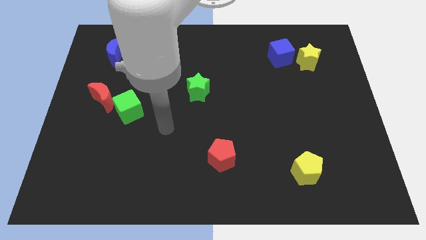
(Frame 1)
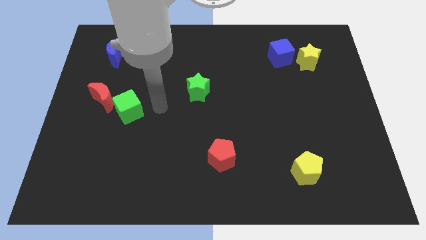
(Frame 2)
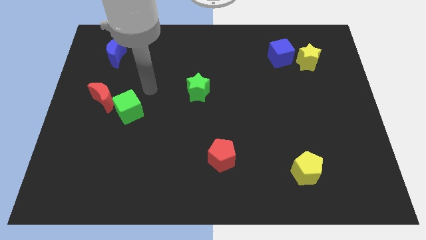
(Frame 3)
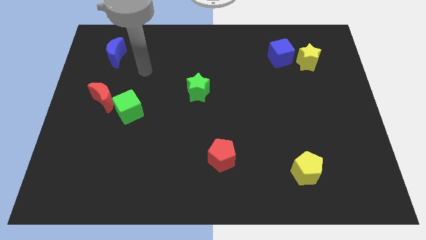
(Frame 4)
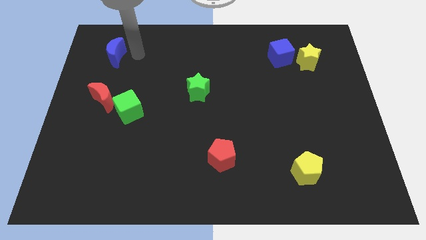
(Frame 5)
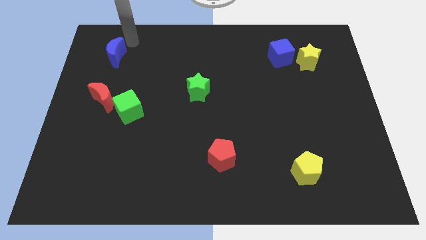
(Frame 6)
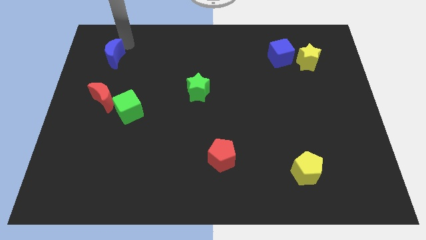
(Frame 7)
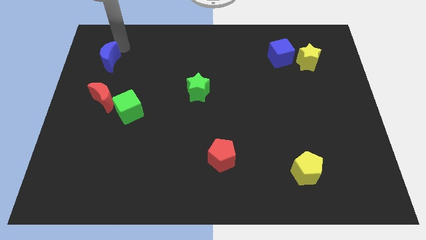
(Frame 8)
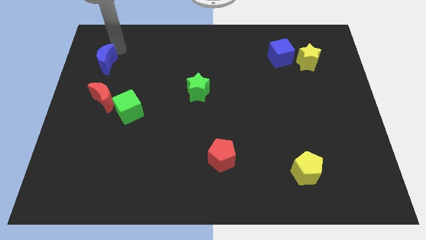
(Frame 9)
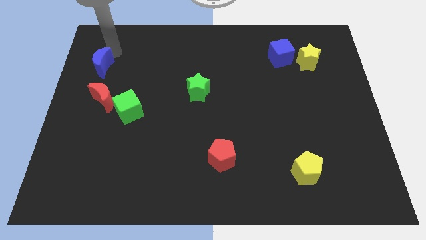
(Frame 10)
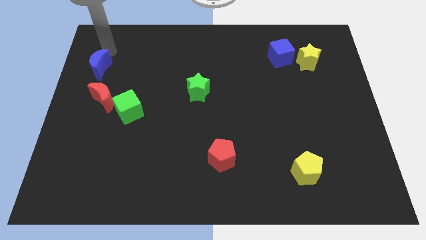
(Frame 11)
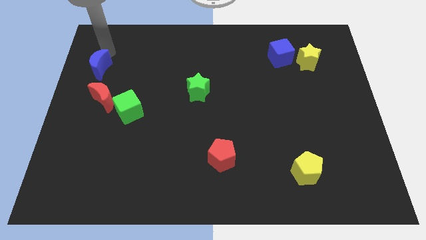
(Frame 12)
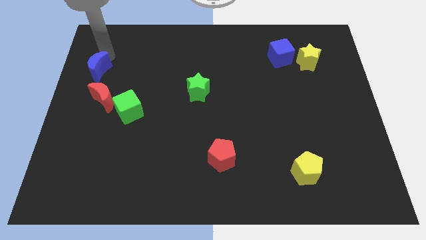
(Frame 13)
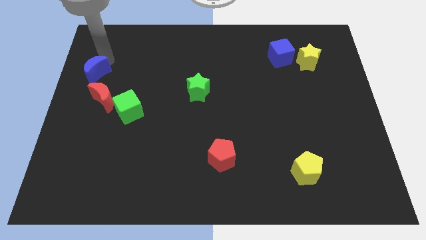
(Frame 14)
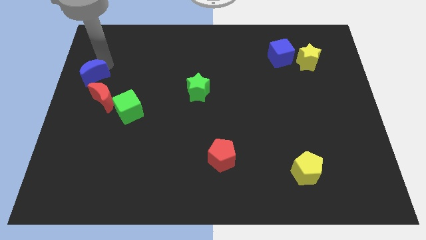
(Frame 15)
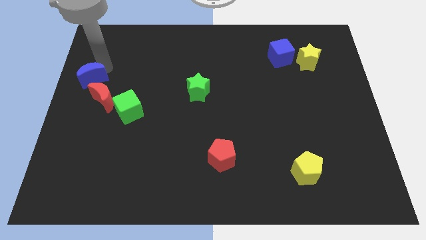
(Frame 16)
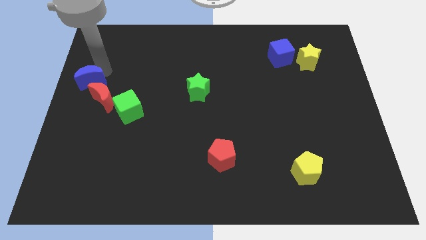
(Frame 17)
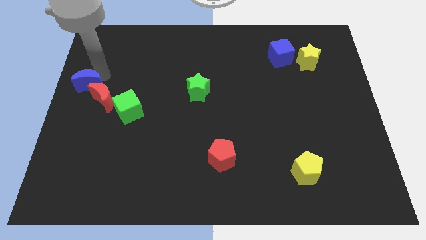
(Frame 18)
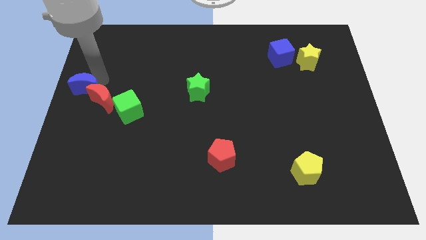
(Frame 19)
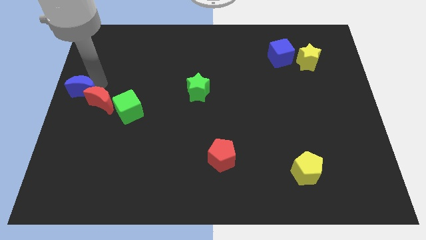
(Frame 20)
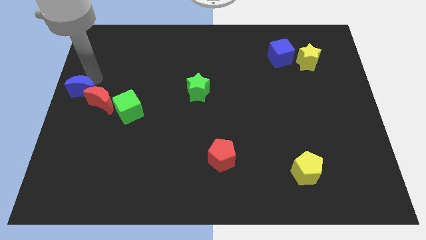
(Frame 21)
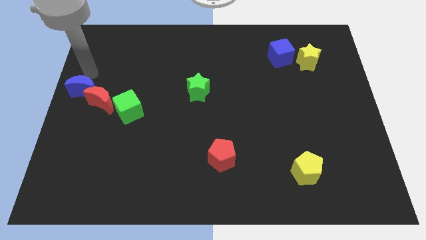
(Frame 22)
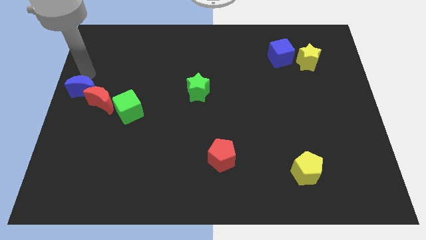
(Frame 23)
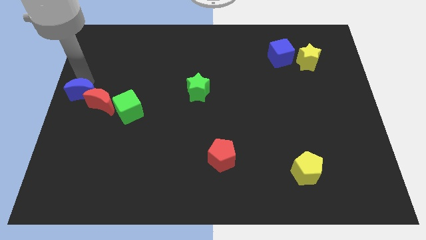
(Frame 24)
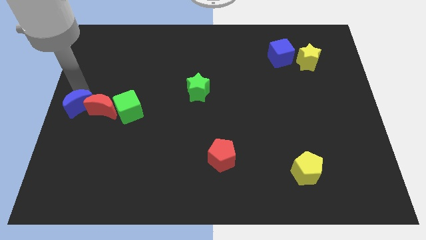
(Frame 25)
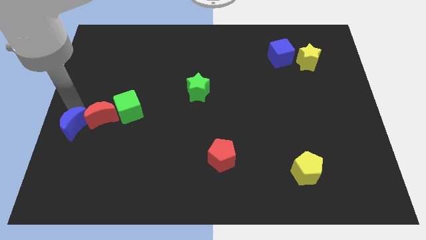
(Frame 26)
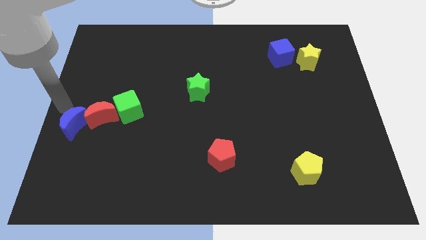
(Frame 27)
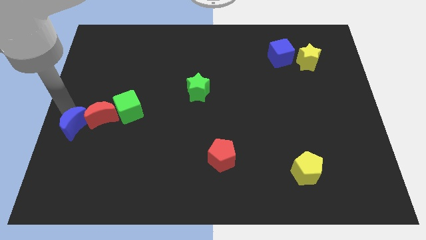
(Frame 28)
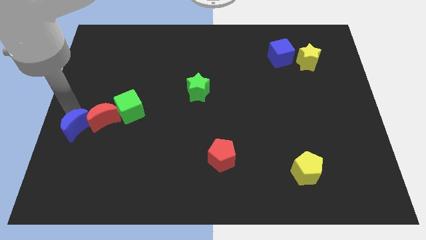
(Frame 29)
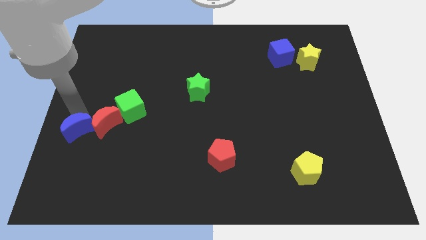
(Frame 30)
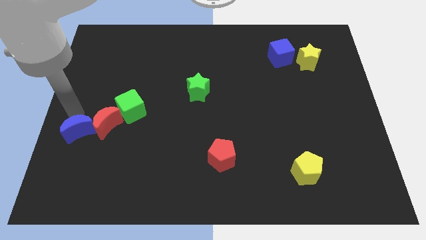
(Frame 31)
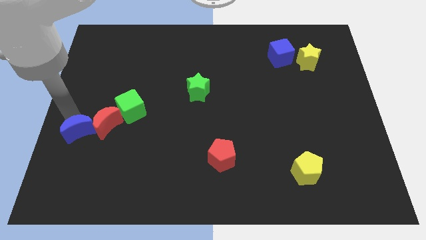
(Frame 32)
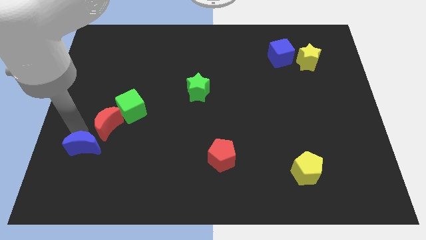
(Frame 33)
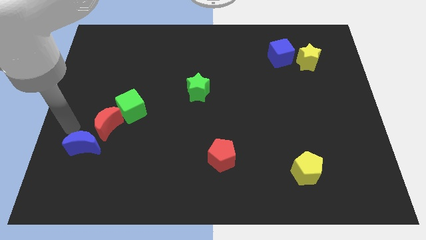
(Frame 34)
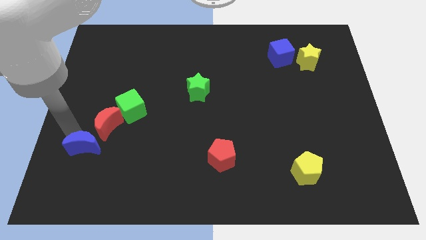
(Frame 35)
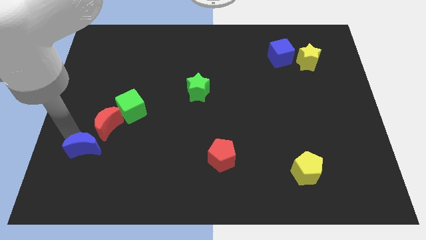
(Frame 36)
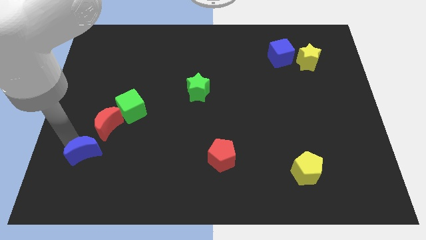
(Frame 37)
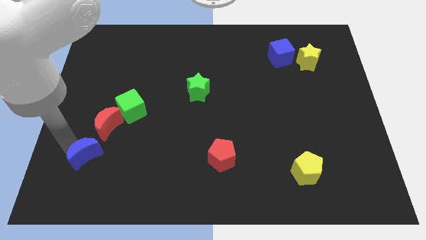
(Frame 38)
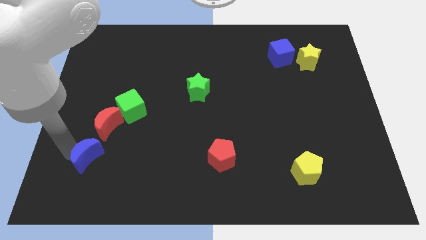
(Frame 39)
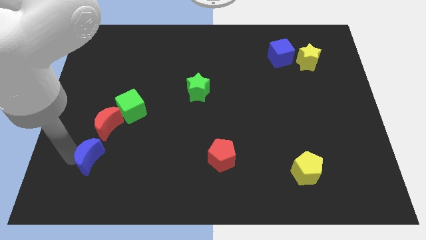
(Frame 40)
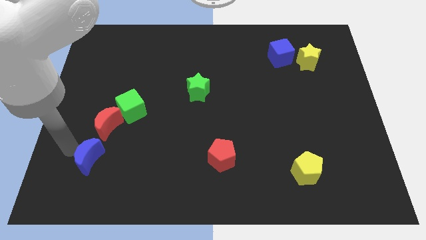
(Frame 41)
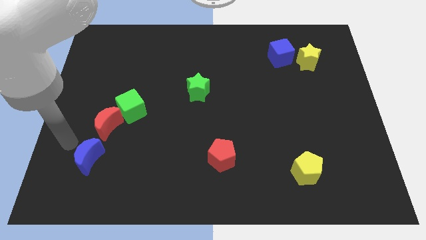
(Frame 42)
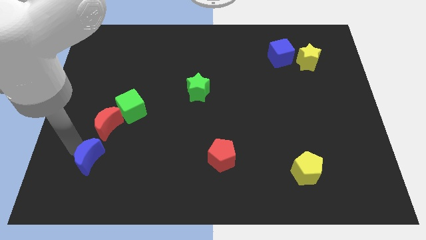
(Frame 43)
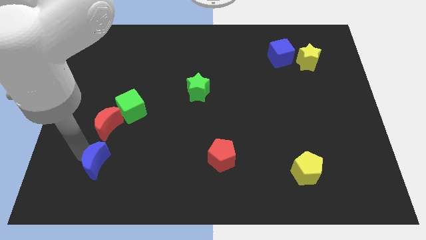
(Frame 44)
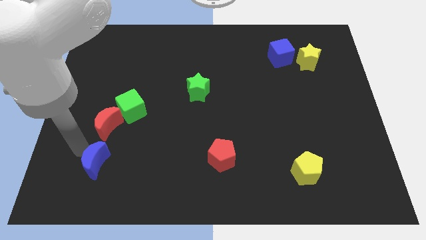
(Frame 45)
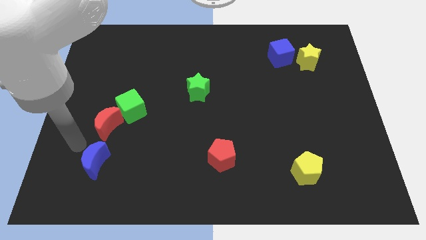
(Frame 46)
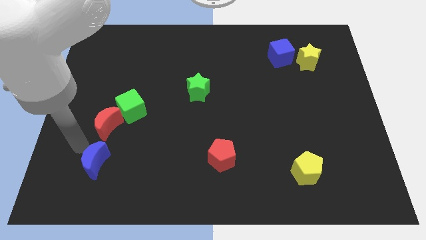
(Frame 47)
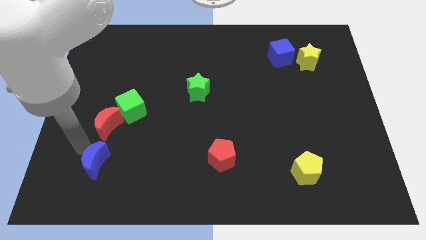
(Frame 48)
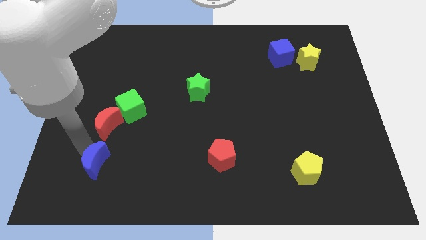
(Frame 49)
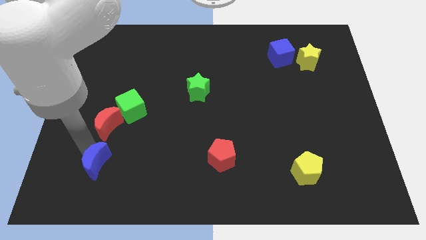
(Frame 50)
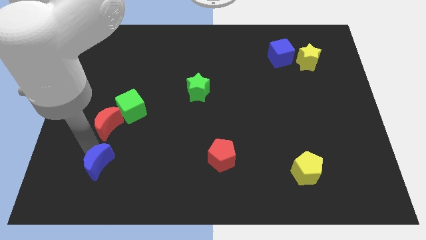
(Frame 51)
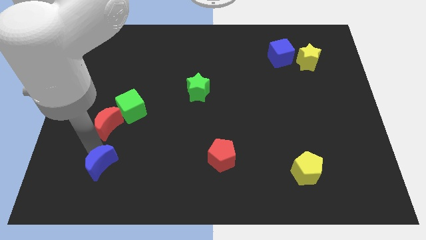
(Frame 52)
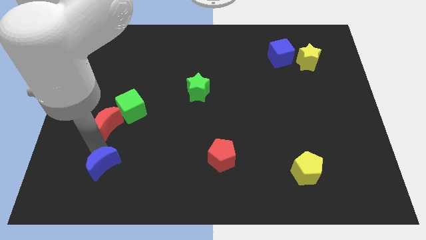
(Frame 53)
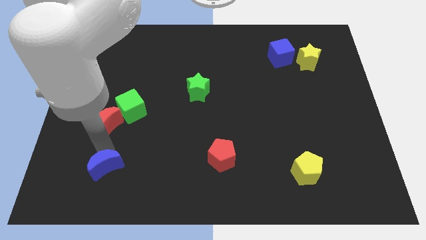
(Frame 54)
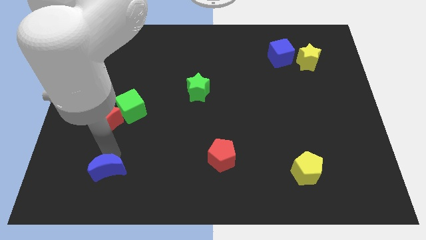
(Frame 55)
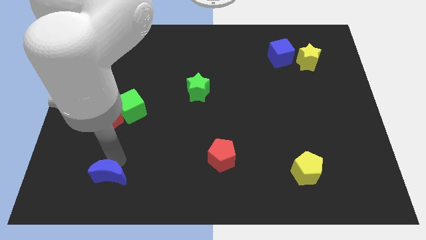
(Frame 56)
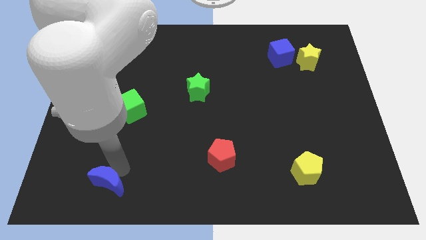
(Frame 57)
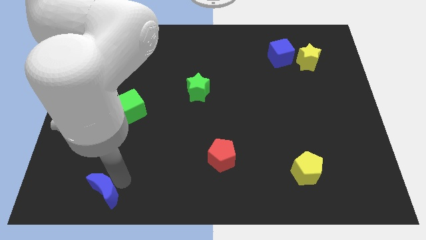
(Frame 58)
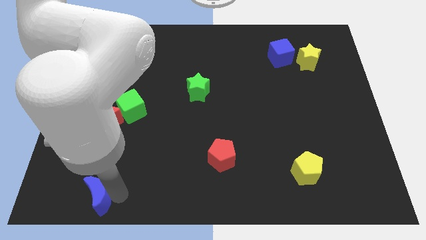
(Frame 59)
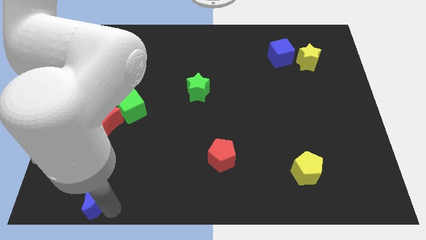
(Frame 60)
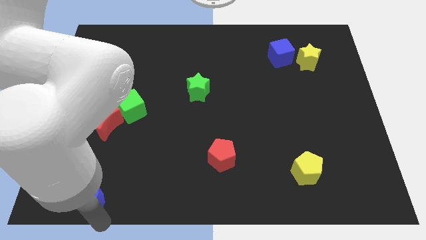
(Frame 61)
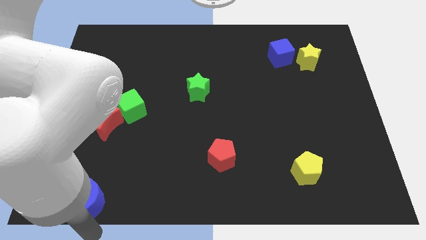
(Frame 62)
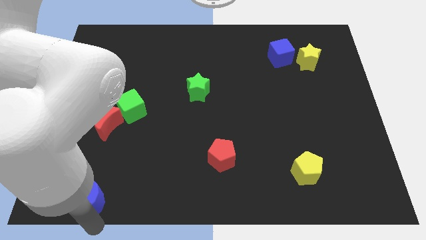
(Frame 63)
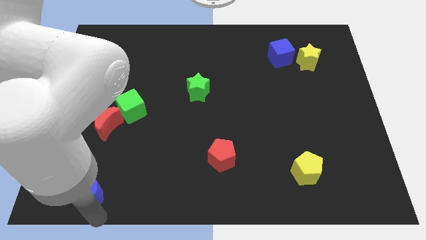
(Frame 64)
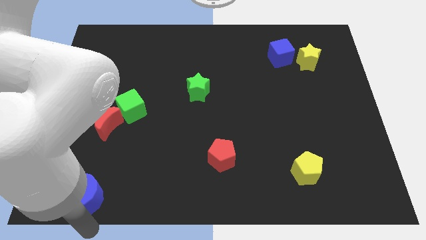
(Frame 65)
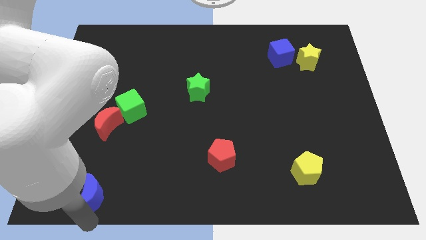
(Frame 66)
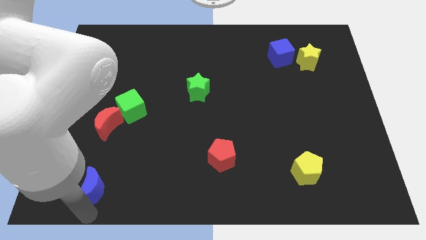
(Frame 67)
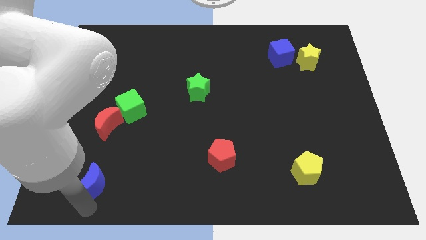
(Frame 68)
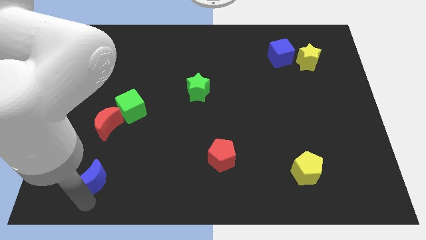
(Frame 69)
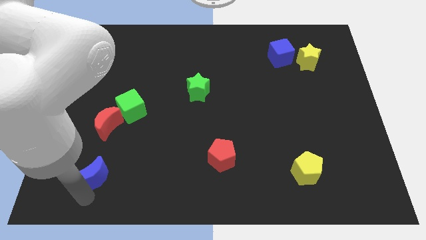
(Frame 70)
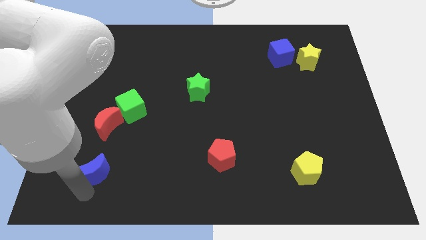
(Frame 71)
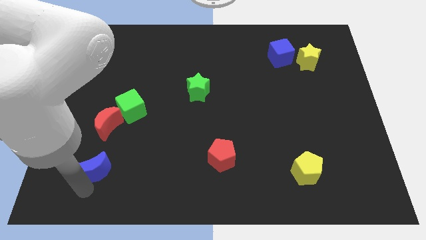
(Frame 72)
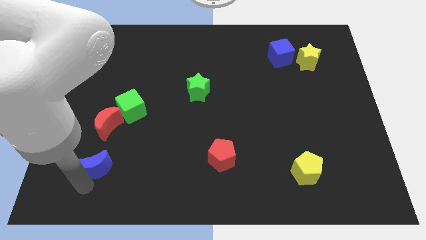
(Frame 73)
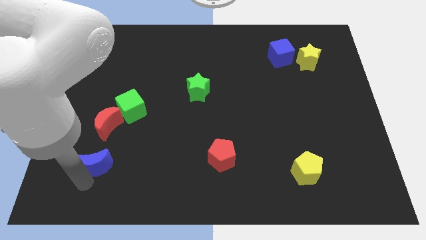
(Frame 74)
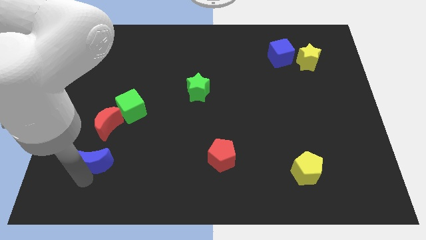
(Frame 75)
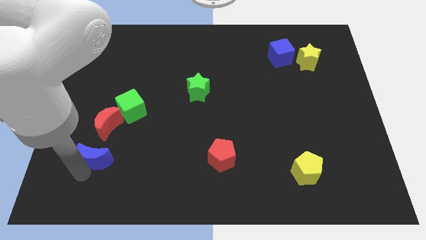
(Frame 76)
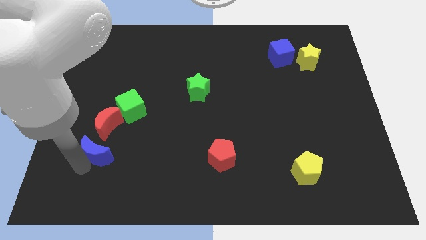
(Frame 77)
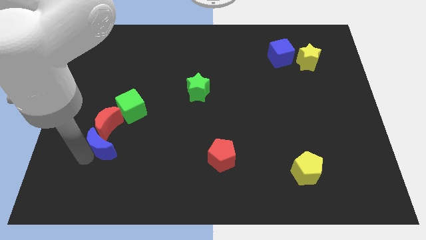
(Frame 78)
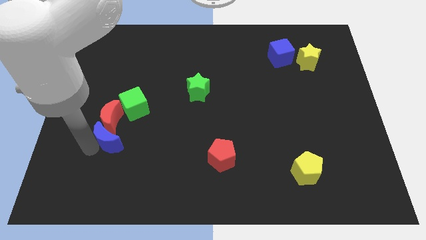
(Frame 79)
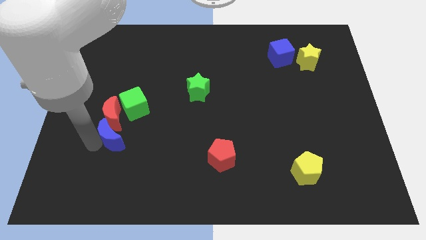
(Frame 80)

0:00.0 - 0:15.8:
move the blue moon to the bottom of the red moon
